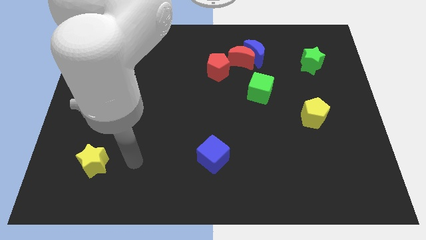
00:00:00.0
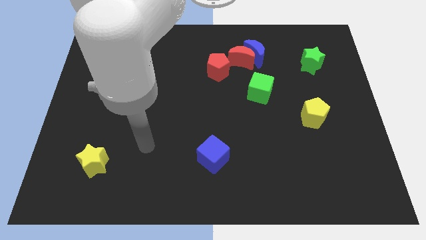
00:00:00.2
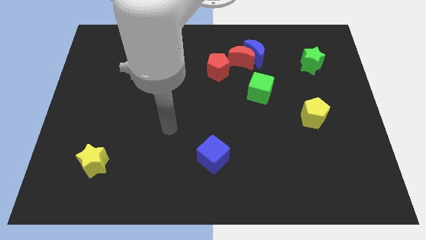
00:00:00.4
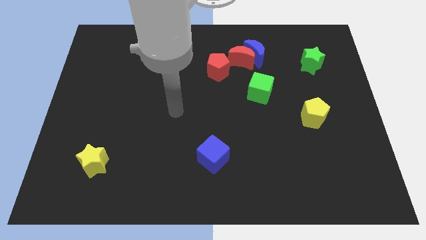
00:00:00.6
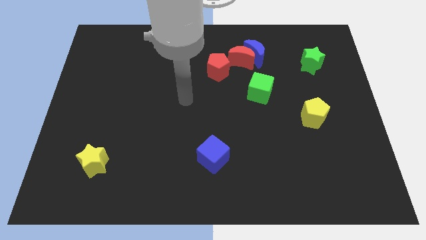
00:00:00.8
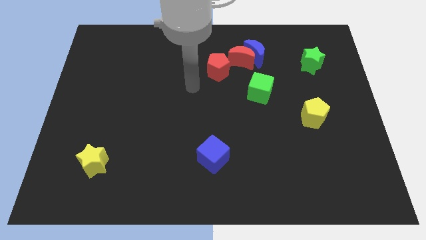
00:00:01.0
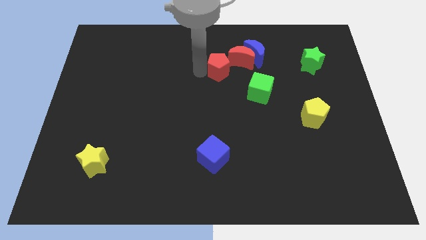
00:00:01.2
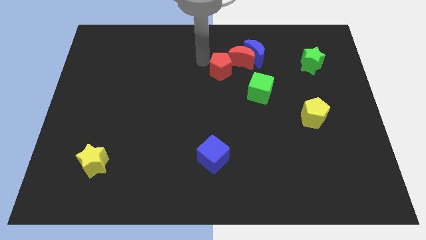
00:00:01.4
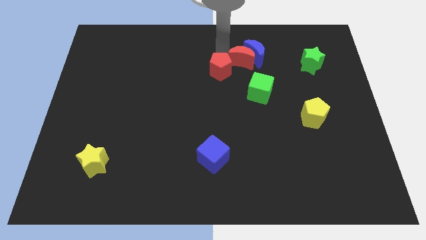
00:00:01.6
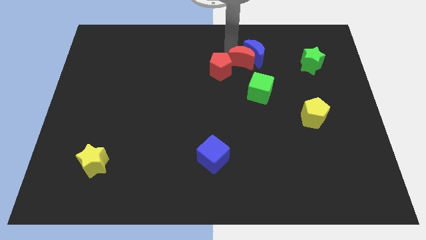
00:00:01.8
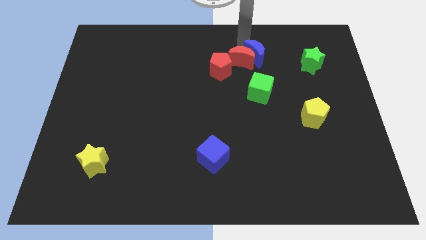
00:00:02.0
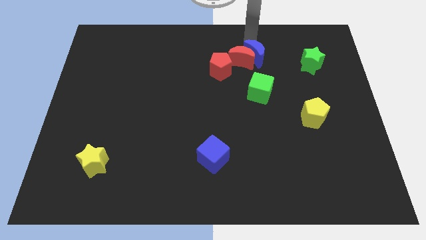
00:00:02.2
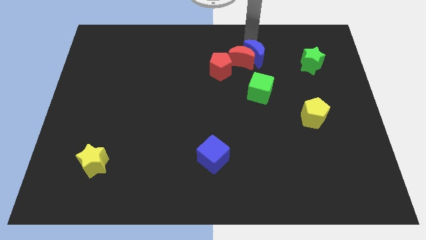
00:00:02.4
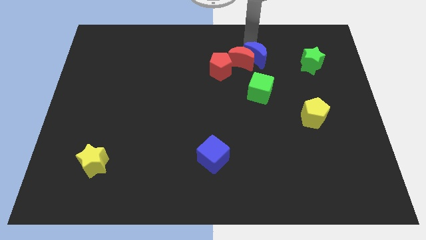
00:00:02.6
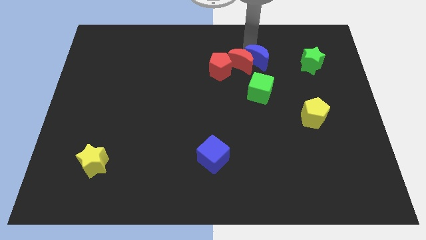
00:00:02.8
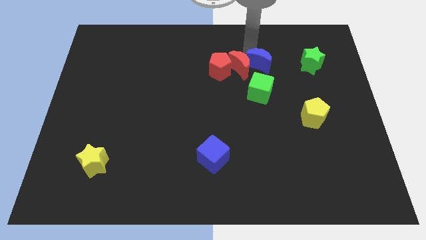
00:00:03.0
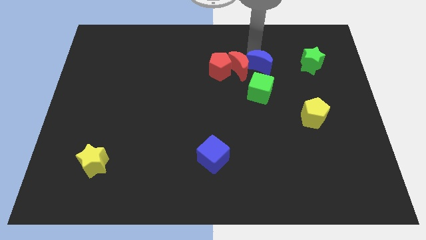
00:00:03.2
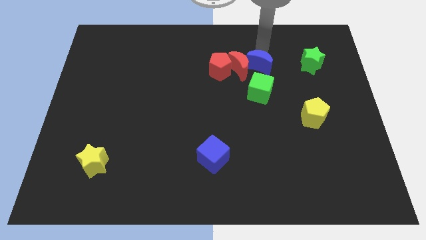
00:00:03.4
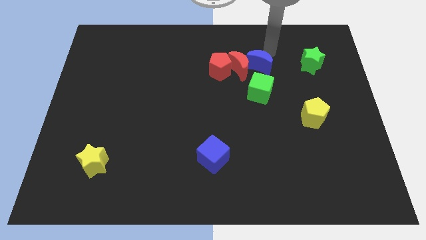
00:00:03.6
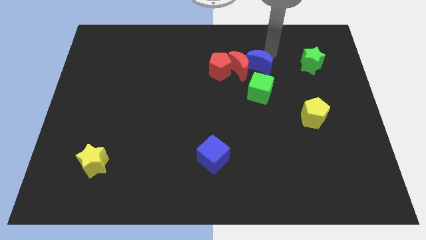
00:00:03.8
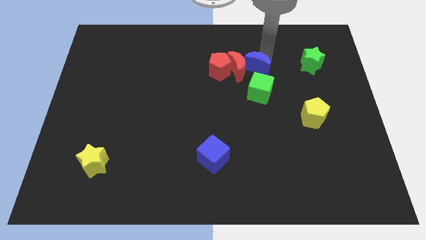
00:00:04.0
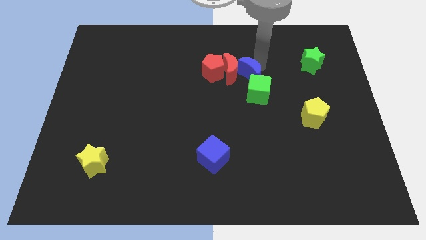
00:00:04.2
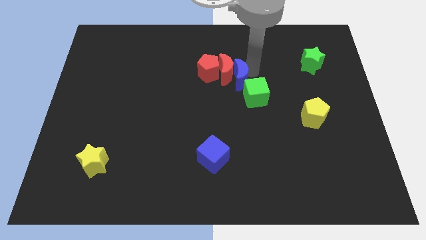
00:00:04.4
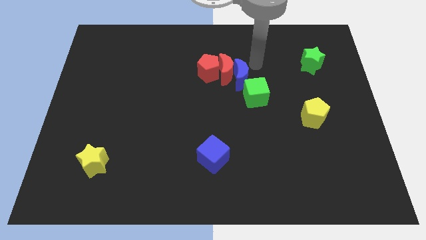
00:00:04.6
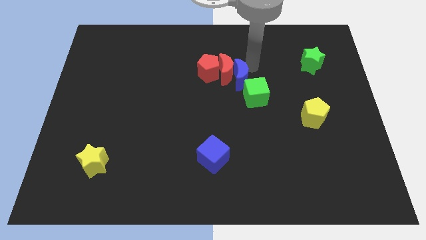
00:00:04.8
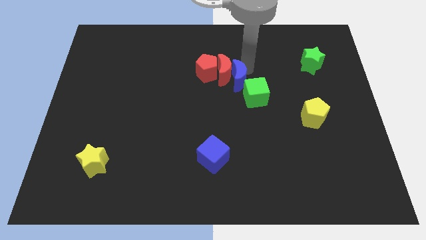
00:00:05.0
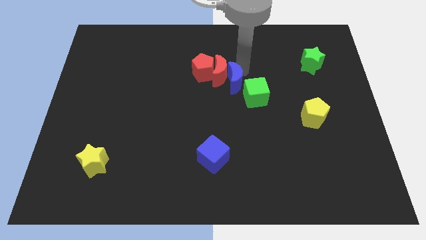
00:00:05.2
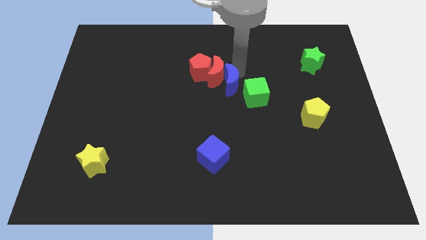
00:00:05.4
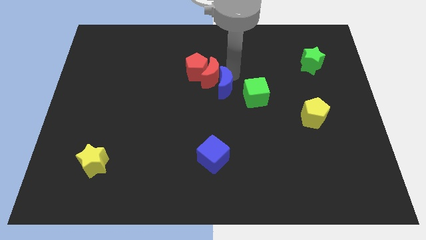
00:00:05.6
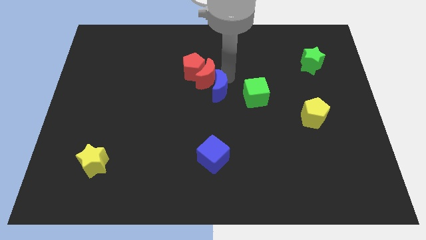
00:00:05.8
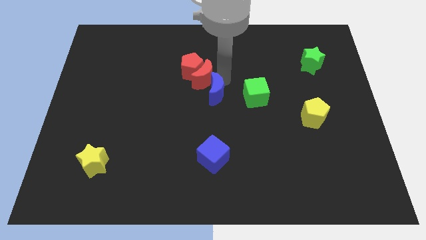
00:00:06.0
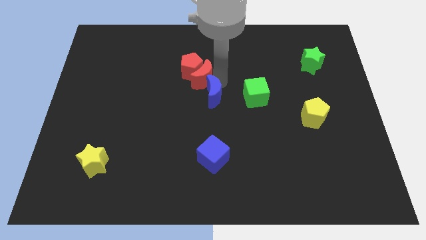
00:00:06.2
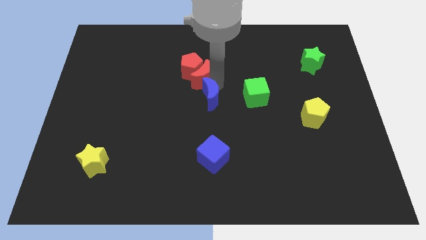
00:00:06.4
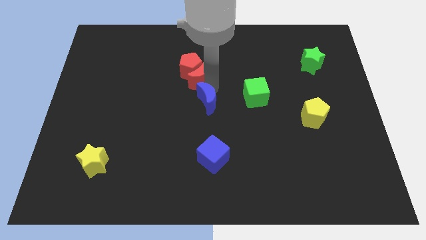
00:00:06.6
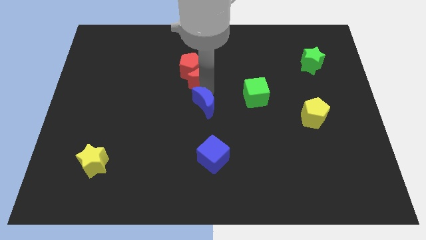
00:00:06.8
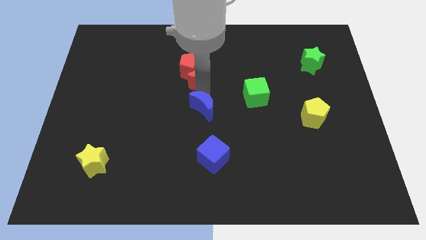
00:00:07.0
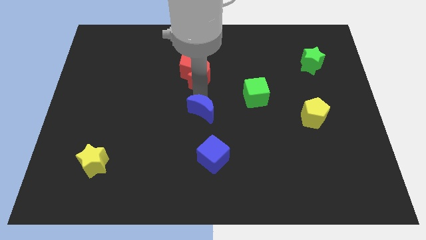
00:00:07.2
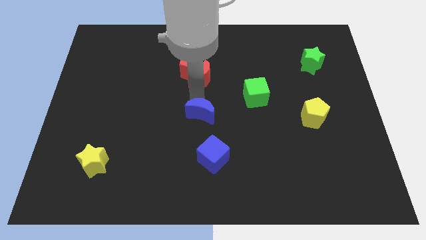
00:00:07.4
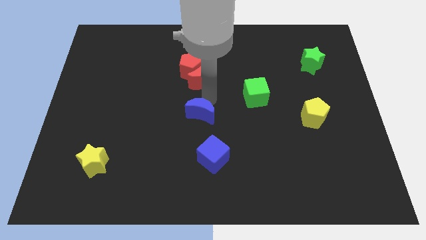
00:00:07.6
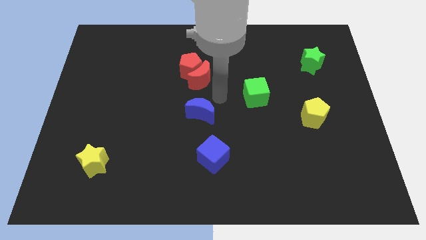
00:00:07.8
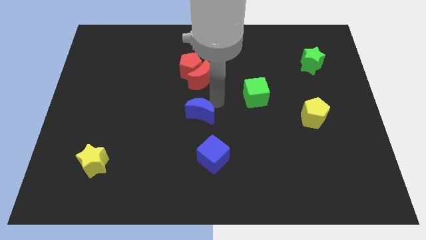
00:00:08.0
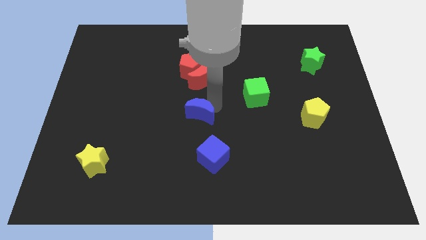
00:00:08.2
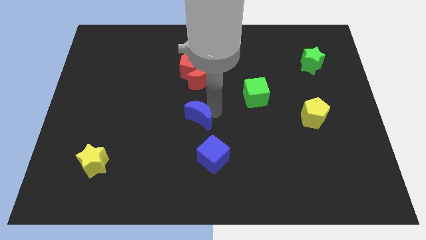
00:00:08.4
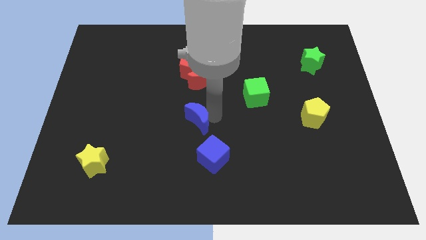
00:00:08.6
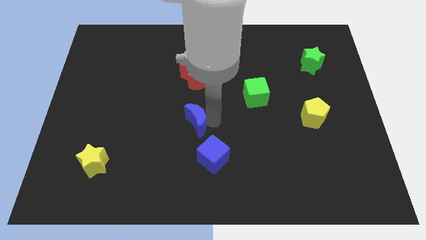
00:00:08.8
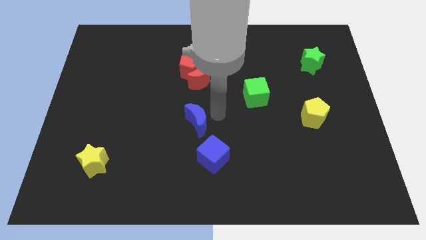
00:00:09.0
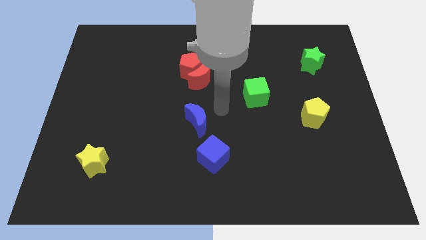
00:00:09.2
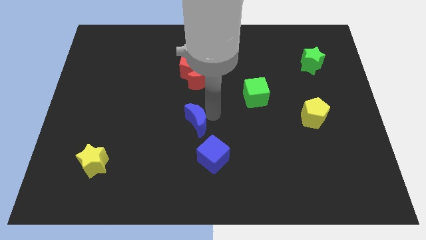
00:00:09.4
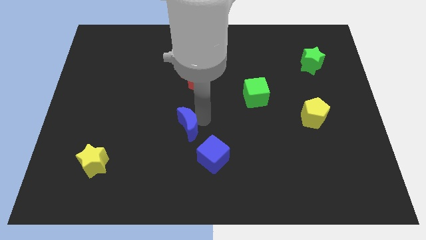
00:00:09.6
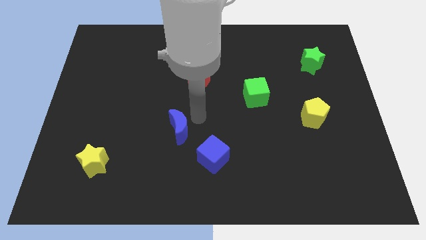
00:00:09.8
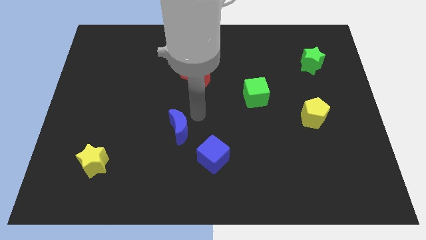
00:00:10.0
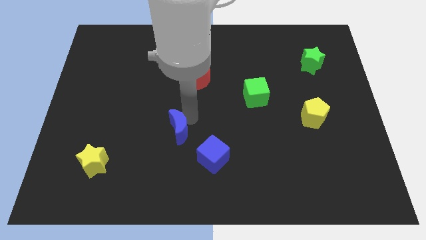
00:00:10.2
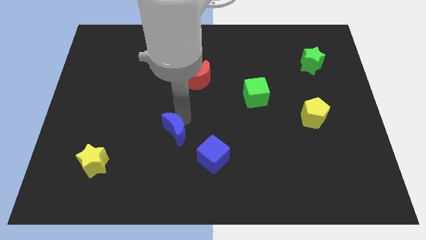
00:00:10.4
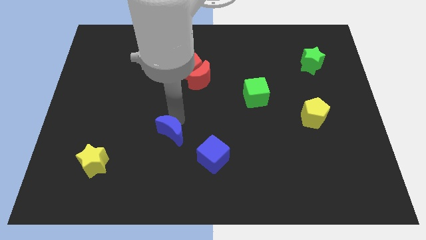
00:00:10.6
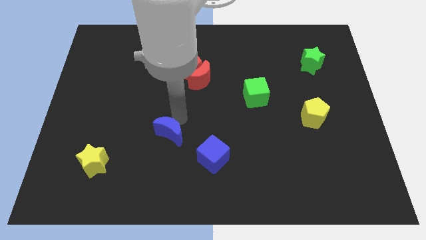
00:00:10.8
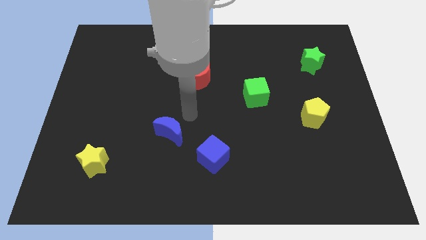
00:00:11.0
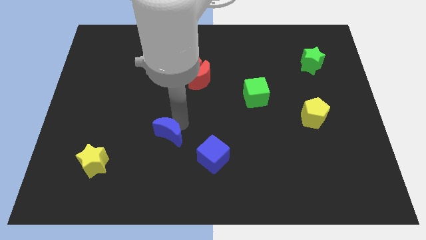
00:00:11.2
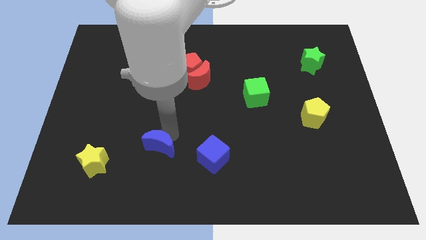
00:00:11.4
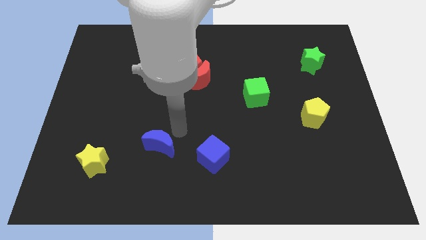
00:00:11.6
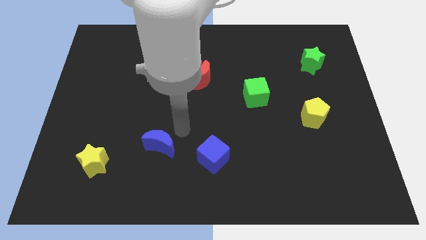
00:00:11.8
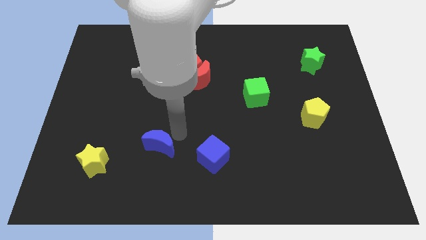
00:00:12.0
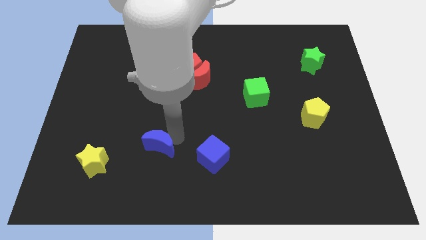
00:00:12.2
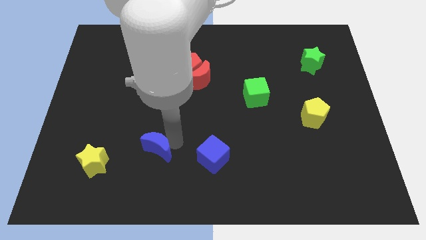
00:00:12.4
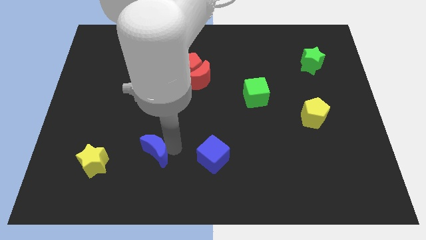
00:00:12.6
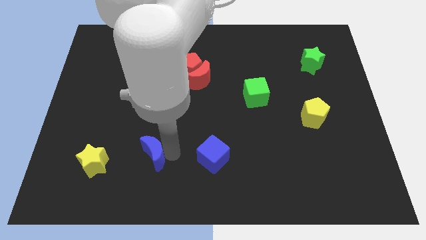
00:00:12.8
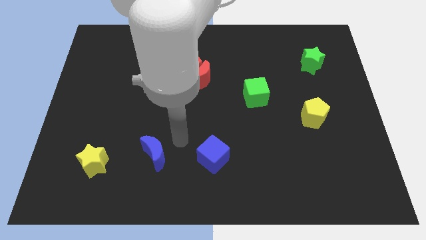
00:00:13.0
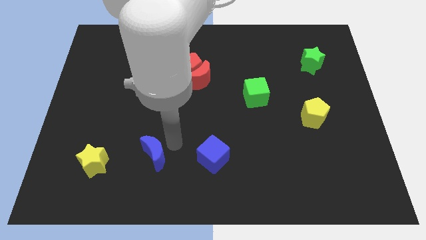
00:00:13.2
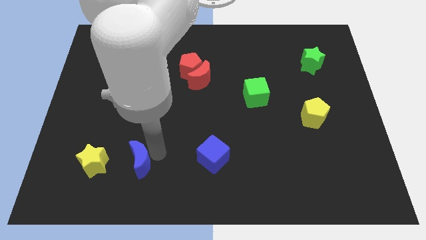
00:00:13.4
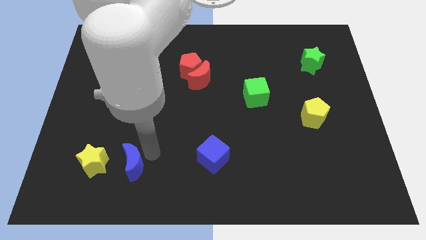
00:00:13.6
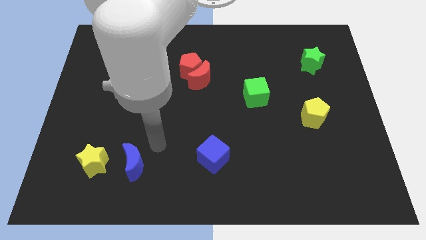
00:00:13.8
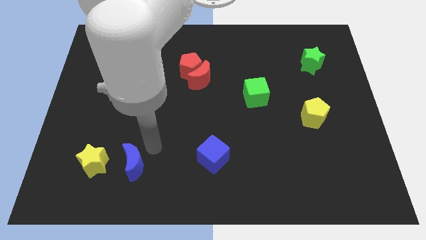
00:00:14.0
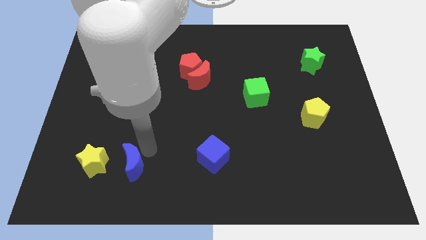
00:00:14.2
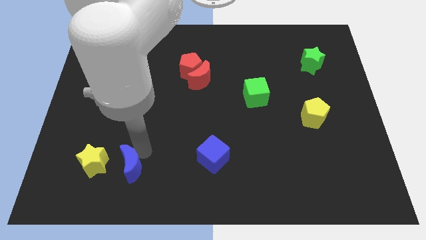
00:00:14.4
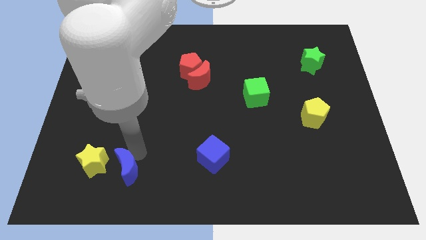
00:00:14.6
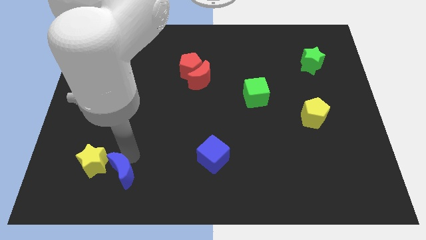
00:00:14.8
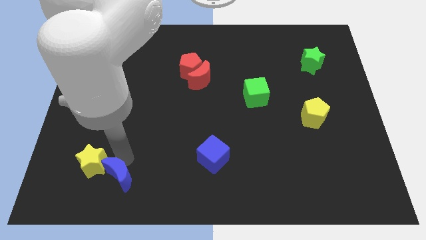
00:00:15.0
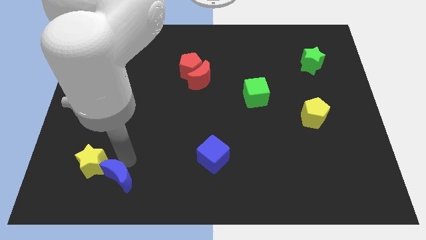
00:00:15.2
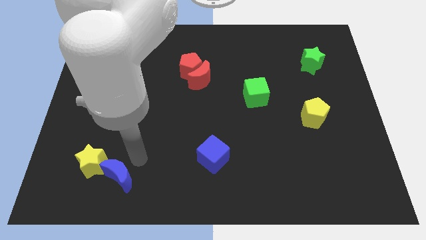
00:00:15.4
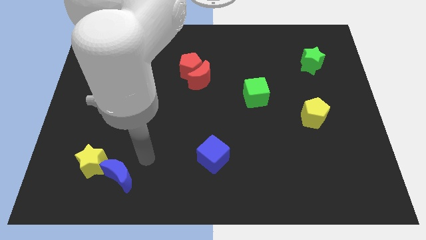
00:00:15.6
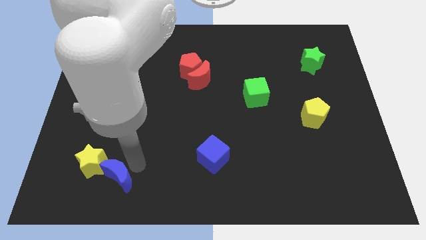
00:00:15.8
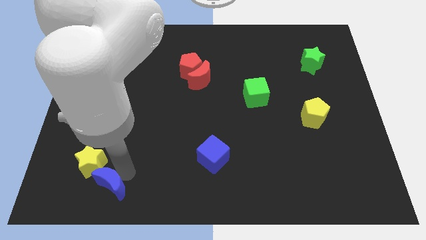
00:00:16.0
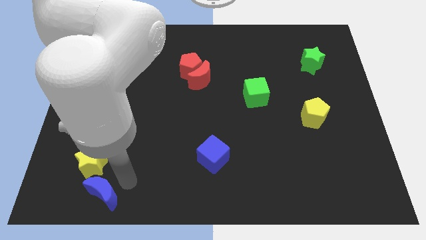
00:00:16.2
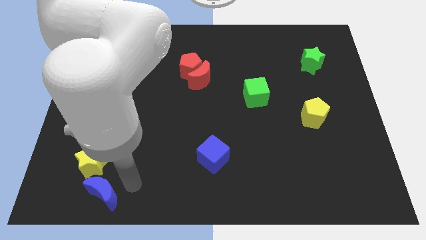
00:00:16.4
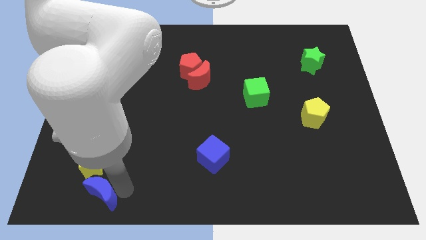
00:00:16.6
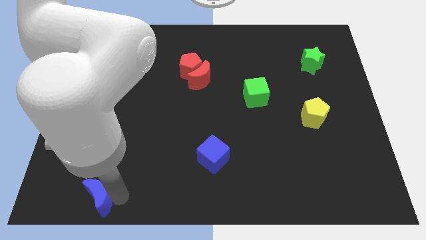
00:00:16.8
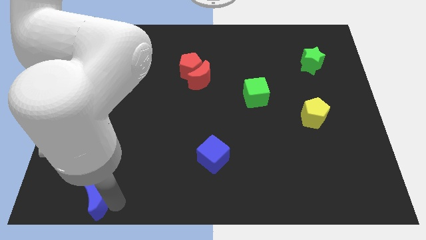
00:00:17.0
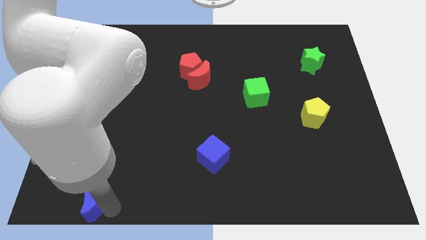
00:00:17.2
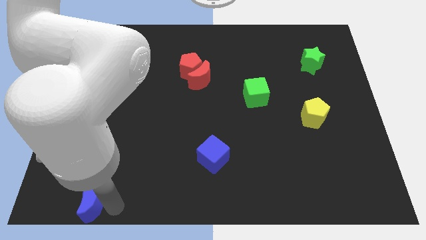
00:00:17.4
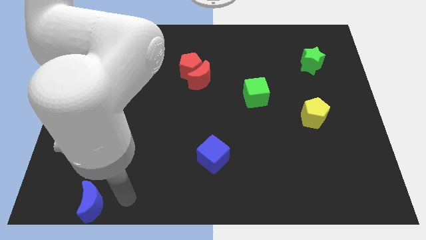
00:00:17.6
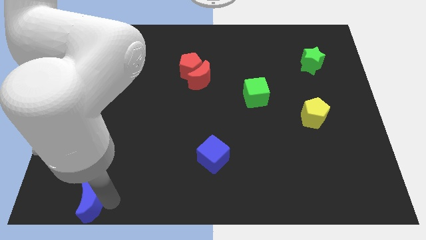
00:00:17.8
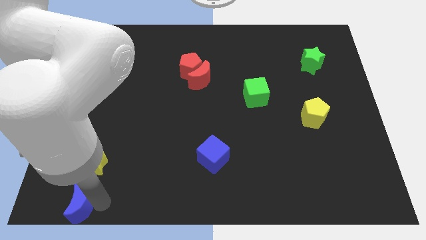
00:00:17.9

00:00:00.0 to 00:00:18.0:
slide the blue moon to the lower left corner
